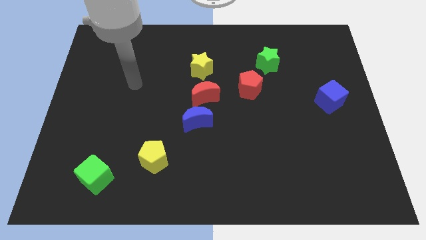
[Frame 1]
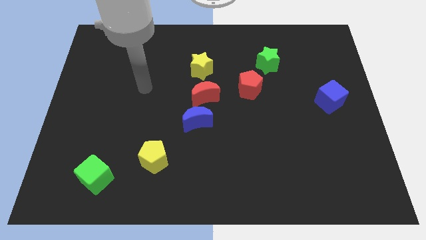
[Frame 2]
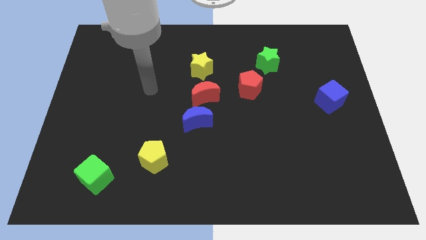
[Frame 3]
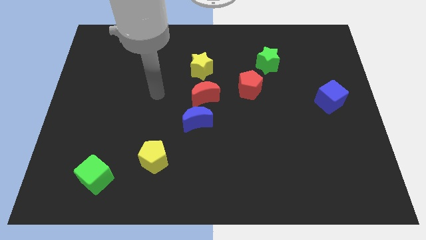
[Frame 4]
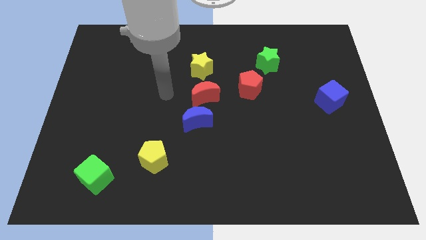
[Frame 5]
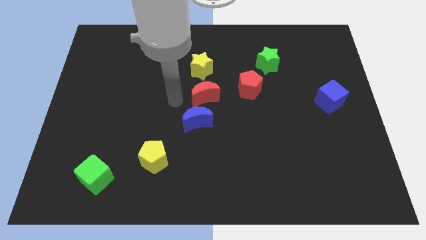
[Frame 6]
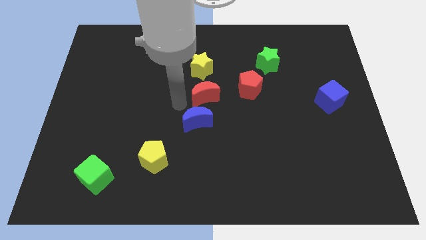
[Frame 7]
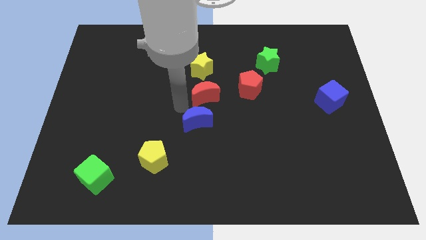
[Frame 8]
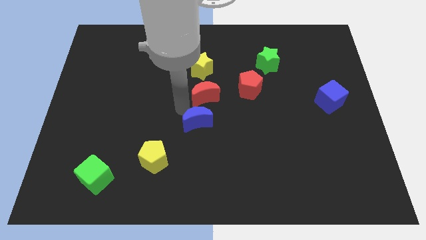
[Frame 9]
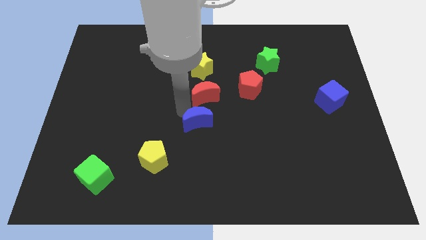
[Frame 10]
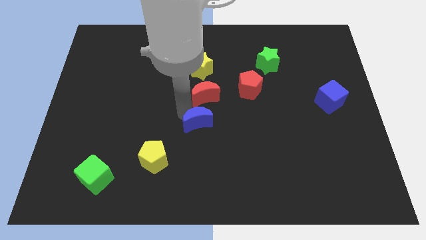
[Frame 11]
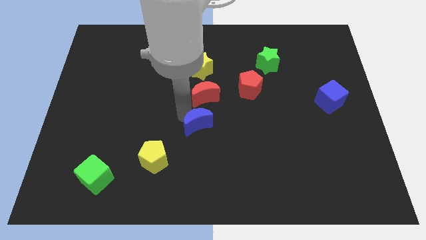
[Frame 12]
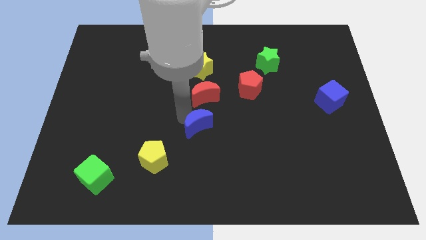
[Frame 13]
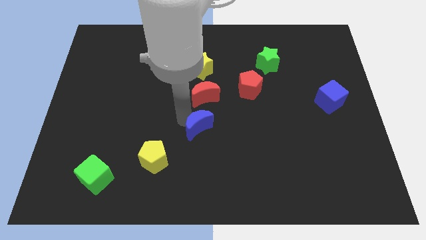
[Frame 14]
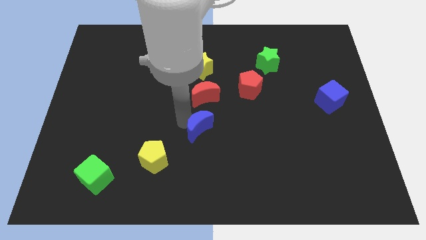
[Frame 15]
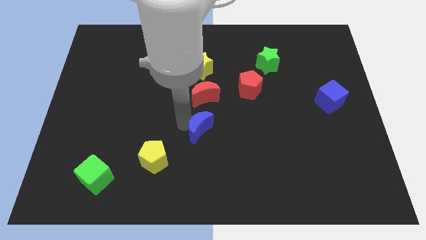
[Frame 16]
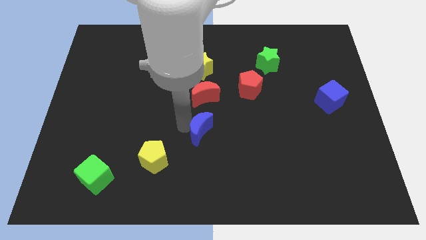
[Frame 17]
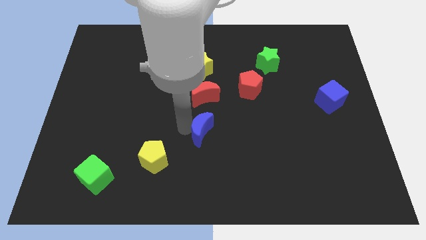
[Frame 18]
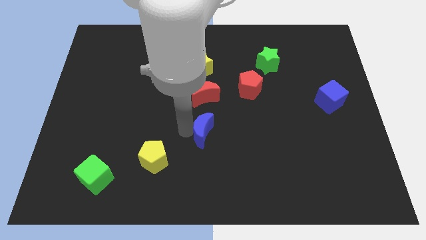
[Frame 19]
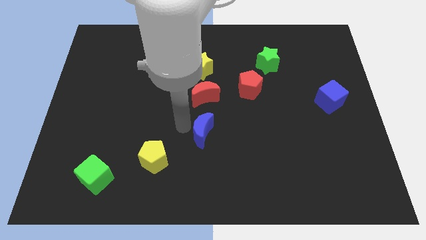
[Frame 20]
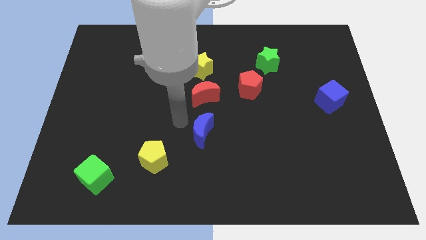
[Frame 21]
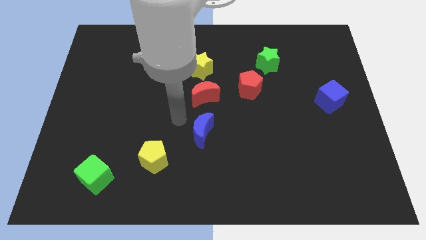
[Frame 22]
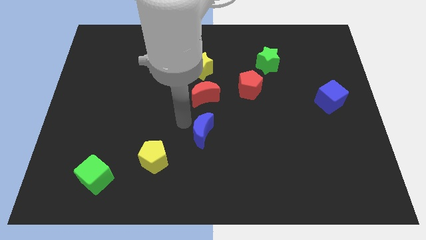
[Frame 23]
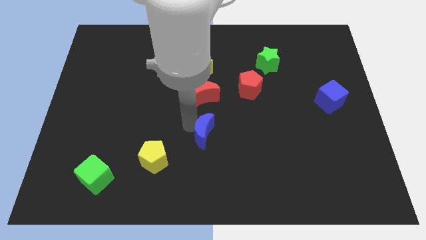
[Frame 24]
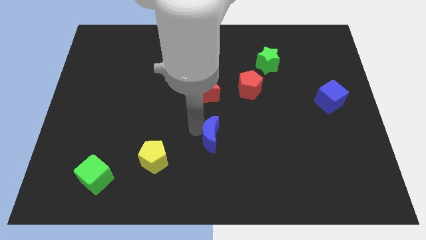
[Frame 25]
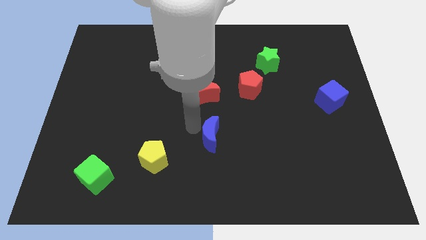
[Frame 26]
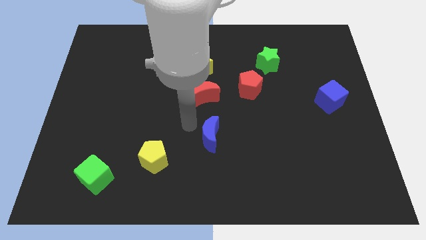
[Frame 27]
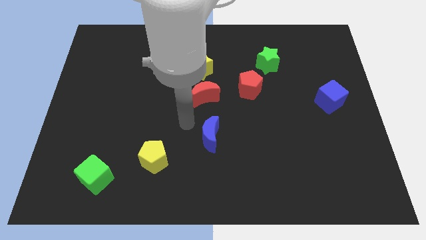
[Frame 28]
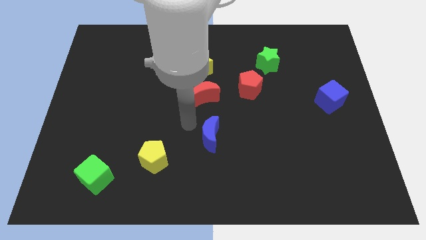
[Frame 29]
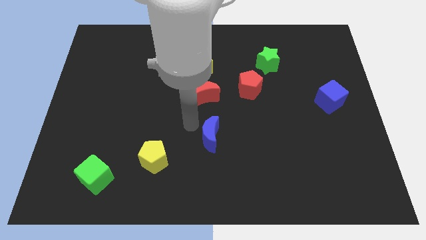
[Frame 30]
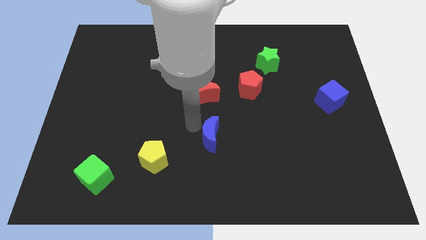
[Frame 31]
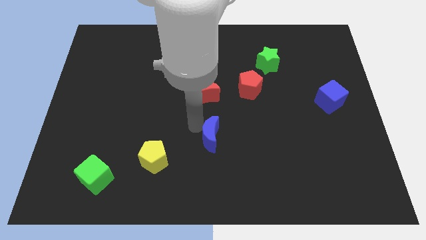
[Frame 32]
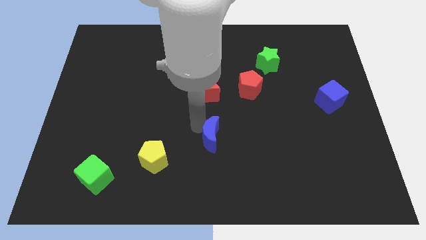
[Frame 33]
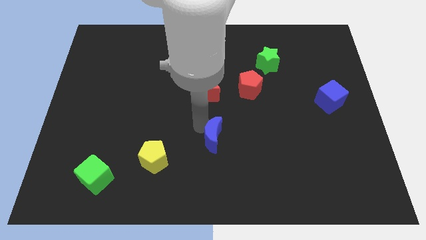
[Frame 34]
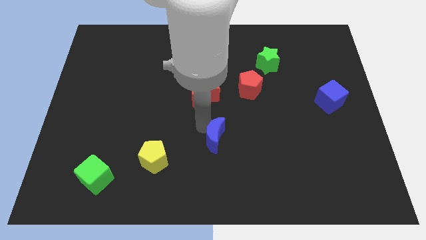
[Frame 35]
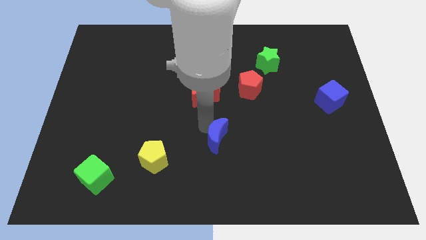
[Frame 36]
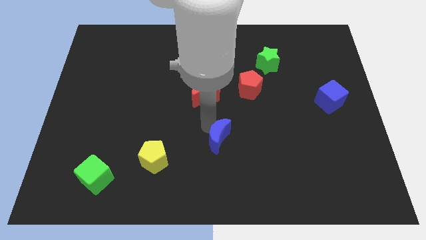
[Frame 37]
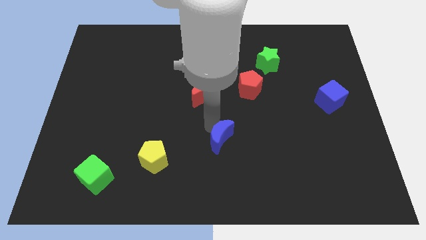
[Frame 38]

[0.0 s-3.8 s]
push the blue moon down and then to the right a little bit

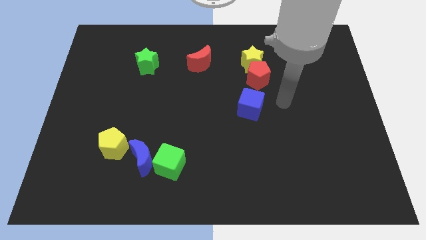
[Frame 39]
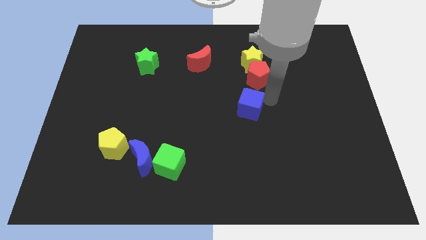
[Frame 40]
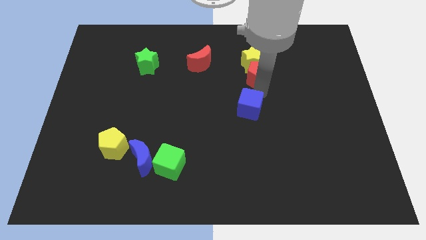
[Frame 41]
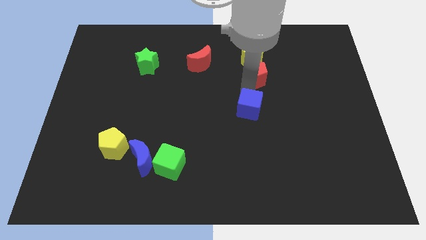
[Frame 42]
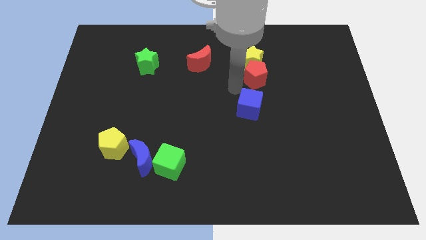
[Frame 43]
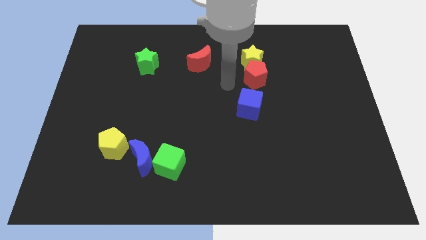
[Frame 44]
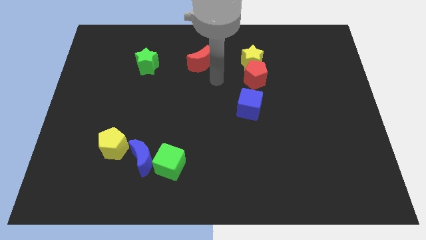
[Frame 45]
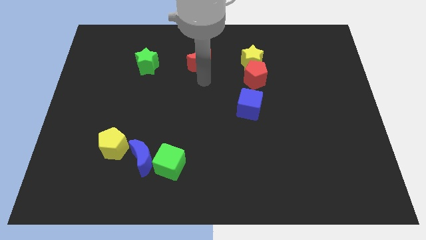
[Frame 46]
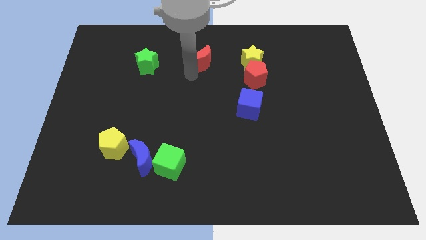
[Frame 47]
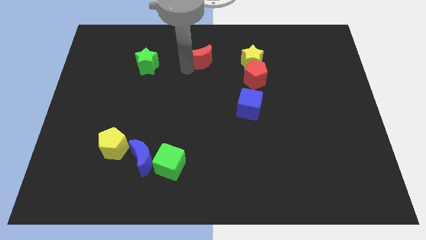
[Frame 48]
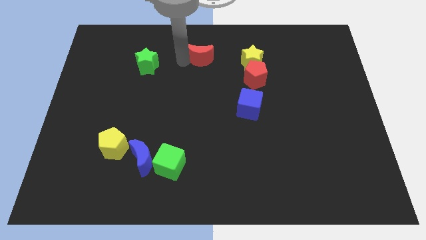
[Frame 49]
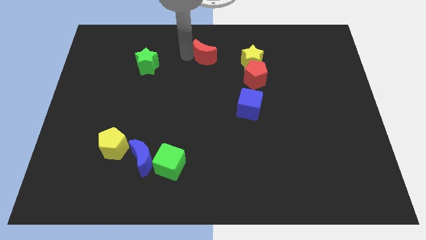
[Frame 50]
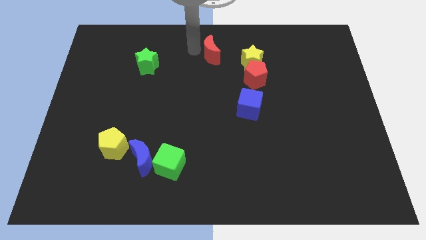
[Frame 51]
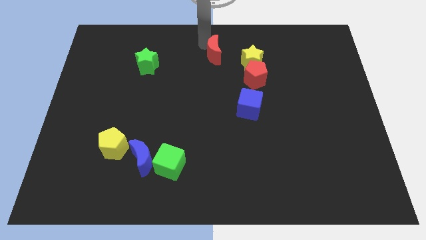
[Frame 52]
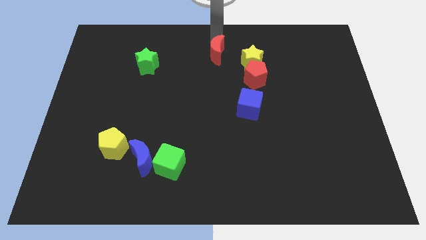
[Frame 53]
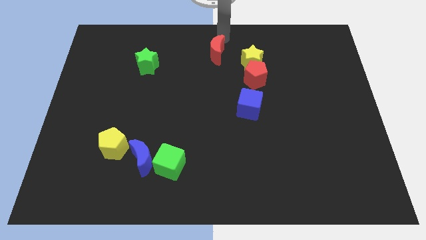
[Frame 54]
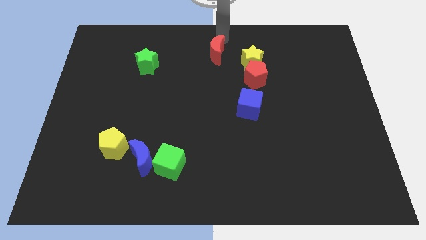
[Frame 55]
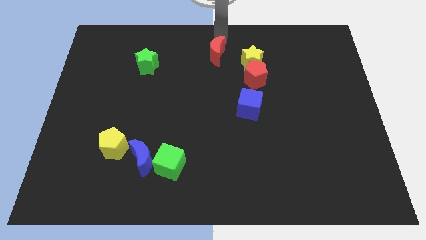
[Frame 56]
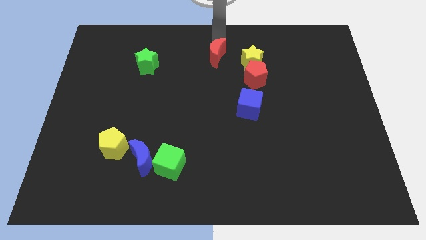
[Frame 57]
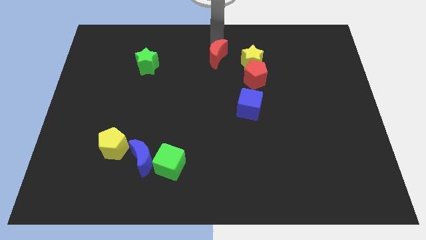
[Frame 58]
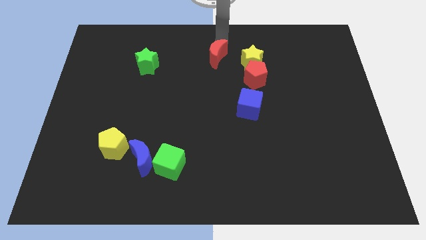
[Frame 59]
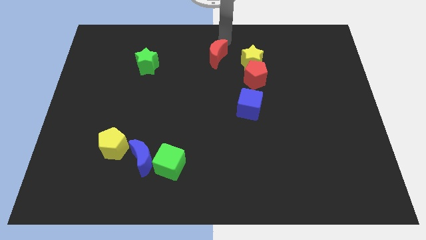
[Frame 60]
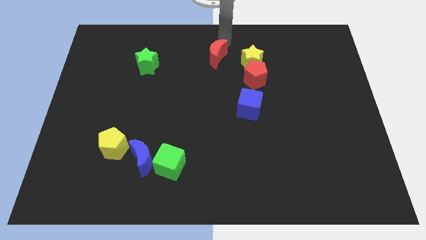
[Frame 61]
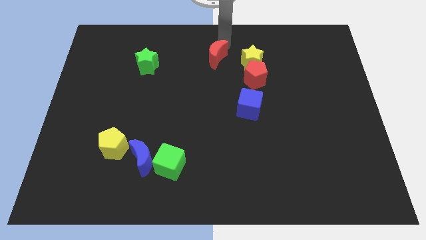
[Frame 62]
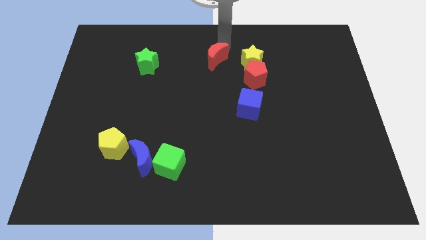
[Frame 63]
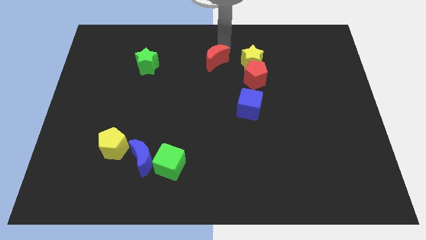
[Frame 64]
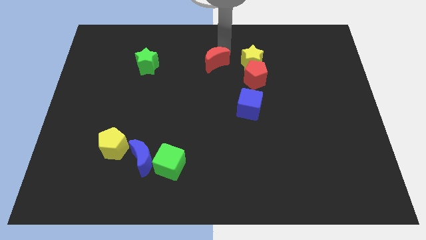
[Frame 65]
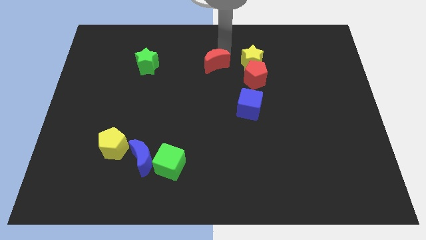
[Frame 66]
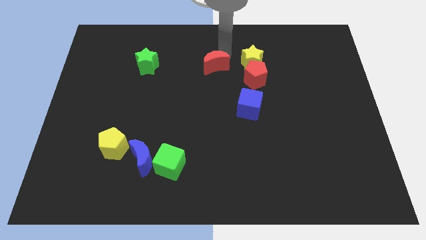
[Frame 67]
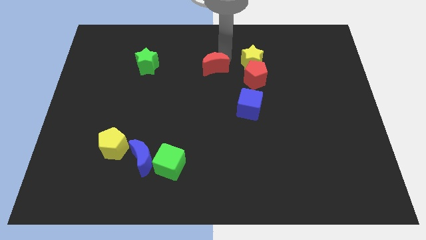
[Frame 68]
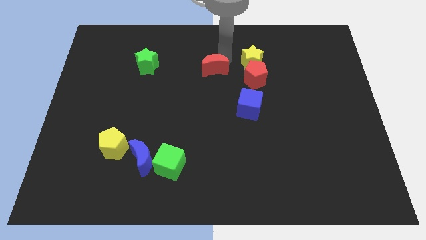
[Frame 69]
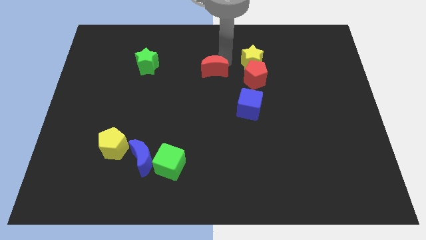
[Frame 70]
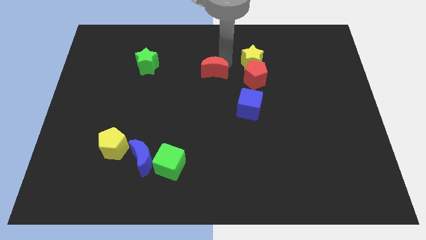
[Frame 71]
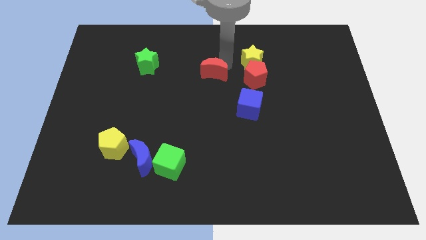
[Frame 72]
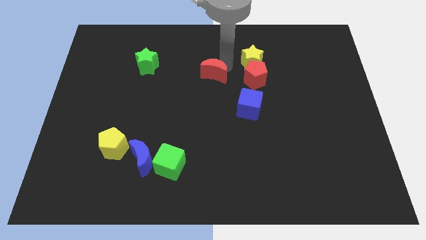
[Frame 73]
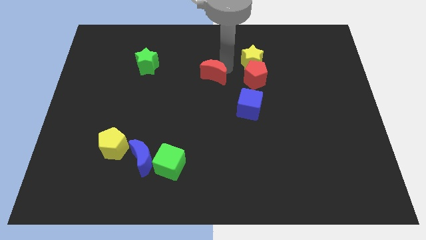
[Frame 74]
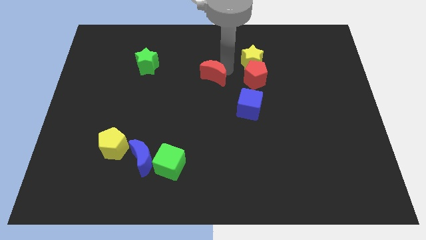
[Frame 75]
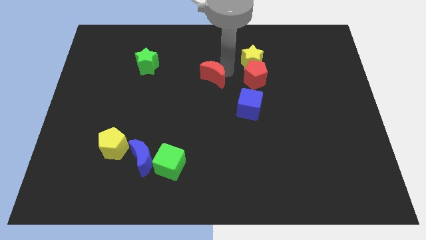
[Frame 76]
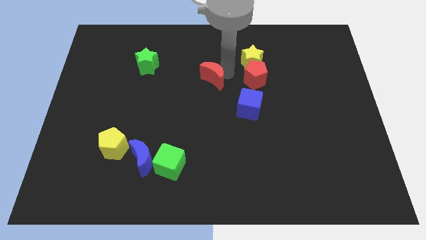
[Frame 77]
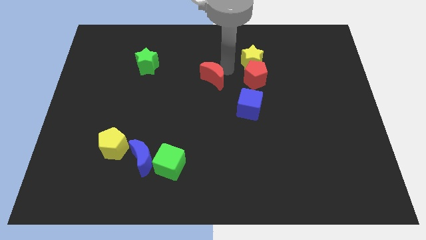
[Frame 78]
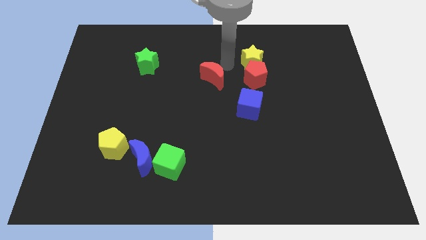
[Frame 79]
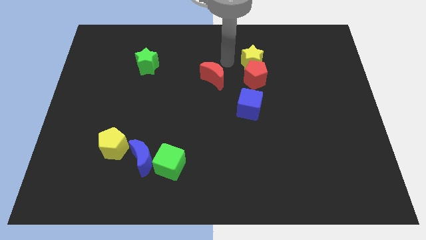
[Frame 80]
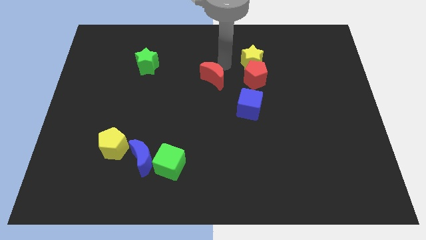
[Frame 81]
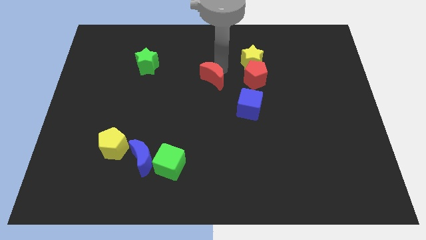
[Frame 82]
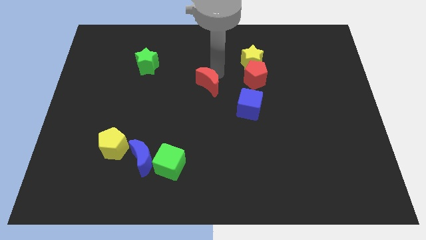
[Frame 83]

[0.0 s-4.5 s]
slightly move the red moon down
